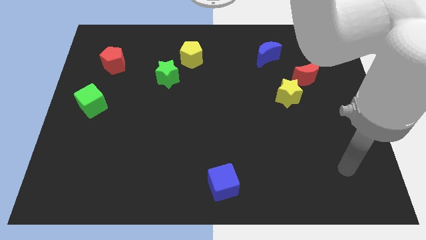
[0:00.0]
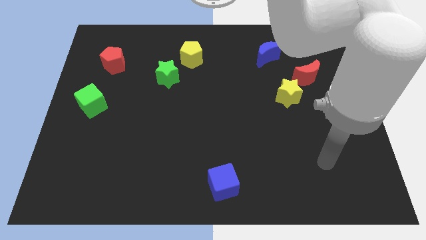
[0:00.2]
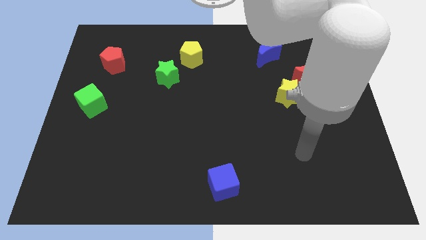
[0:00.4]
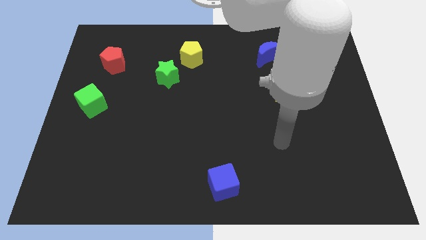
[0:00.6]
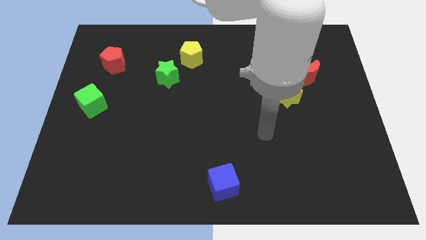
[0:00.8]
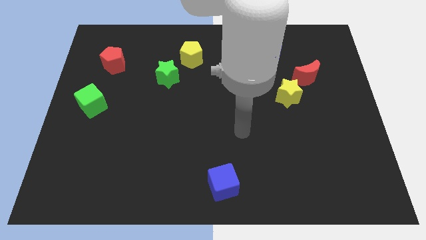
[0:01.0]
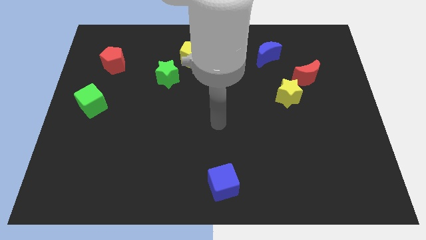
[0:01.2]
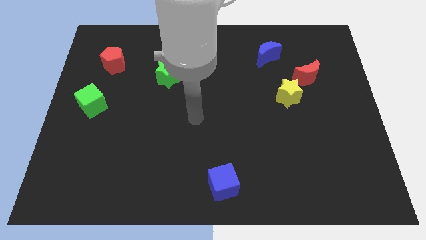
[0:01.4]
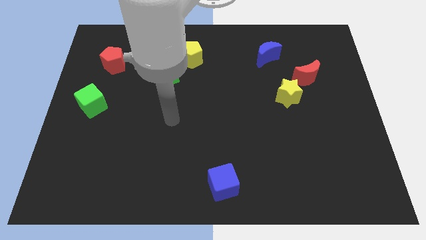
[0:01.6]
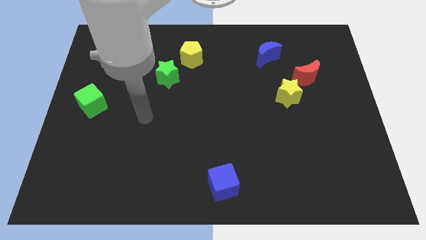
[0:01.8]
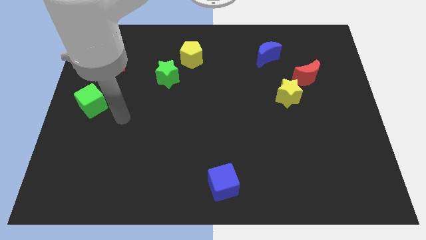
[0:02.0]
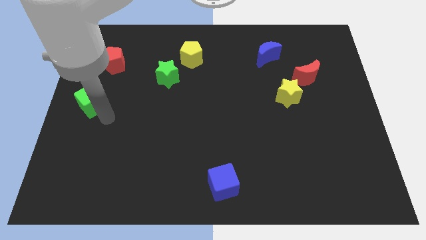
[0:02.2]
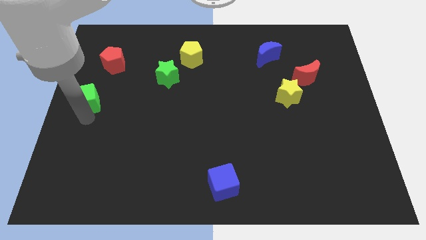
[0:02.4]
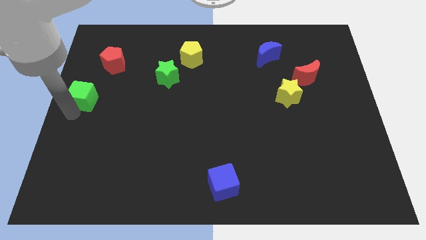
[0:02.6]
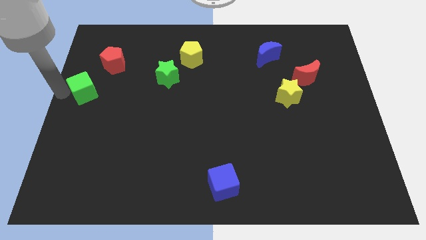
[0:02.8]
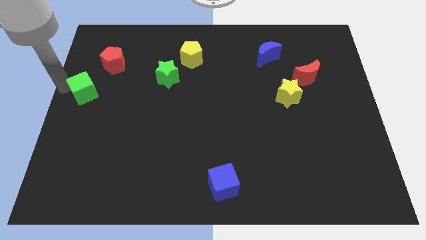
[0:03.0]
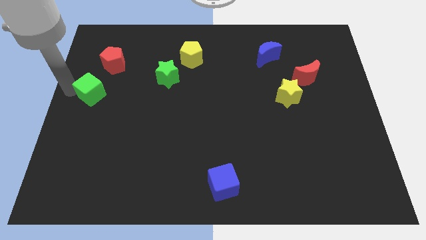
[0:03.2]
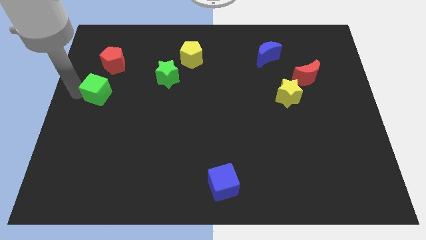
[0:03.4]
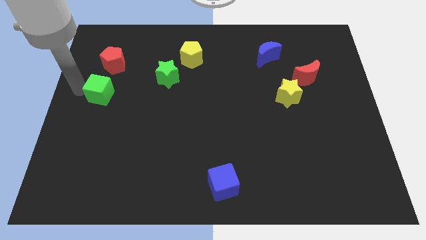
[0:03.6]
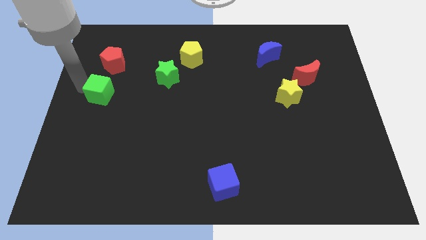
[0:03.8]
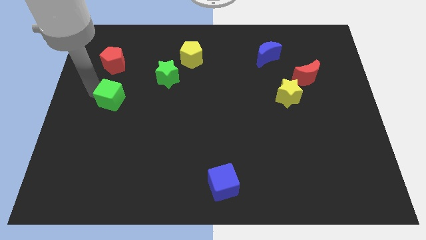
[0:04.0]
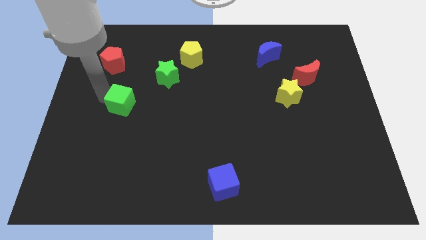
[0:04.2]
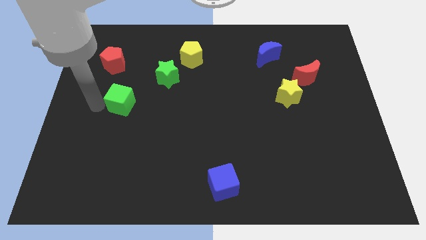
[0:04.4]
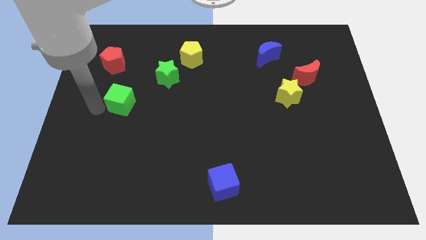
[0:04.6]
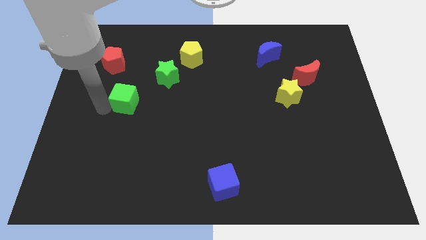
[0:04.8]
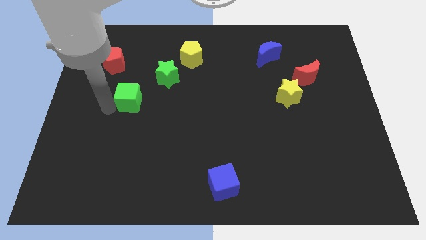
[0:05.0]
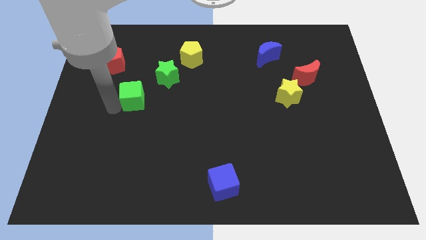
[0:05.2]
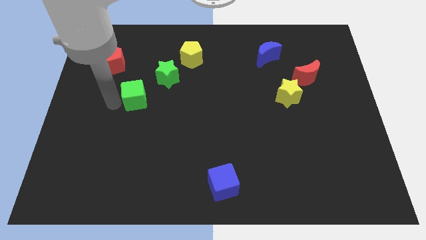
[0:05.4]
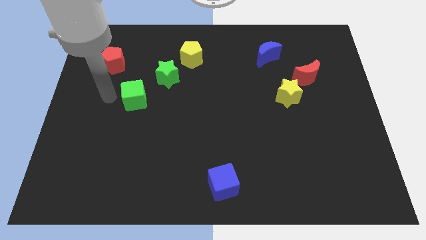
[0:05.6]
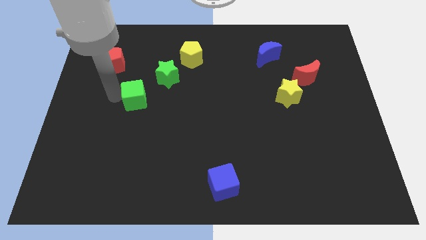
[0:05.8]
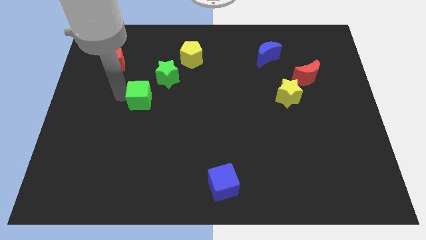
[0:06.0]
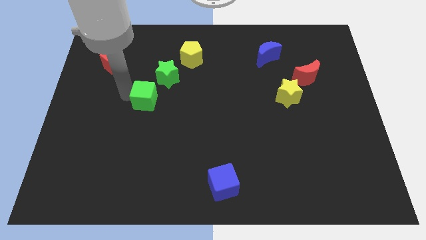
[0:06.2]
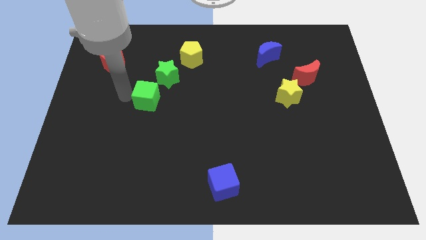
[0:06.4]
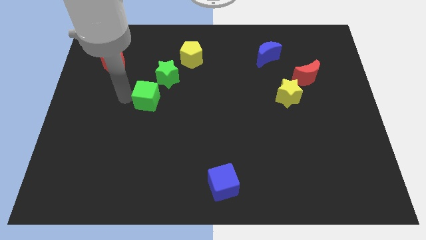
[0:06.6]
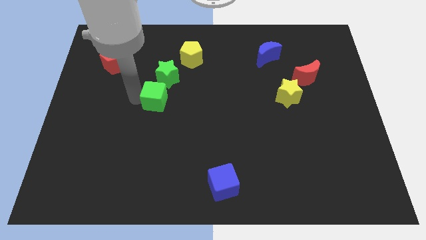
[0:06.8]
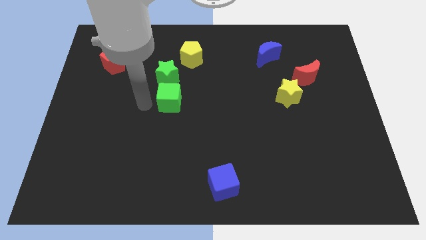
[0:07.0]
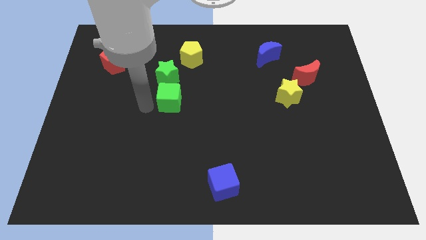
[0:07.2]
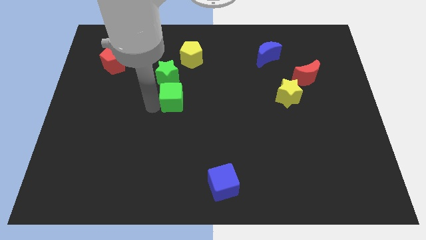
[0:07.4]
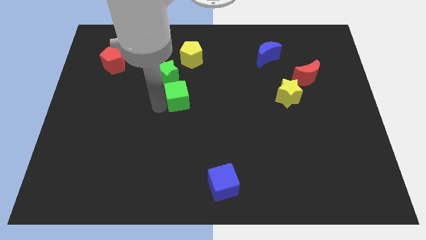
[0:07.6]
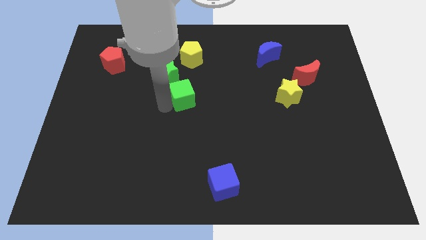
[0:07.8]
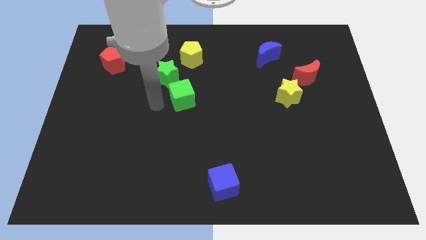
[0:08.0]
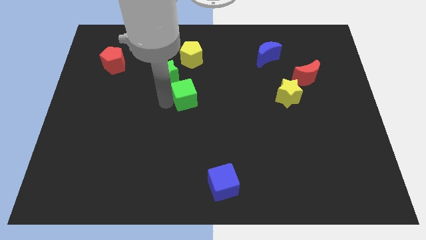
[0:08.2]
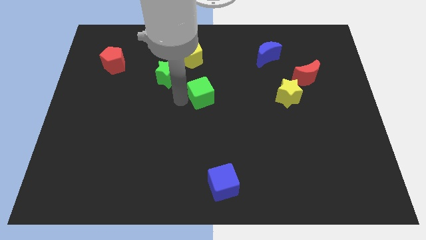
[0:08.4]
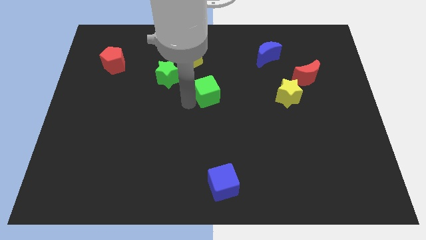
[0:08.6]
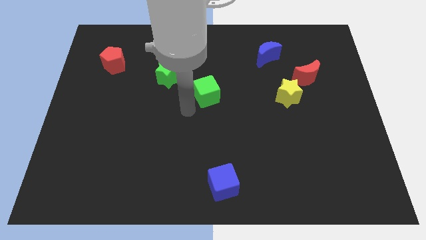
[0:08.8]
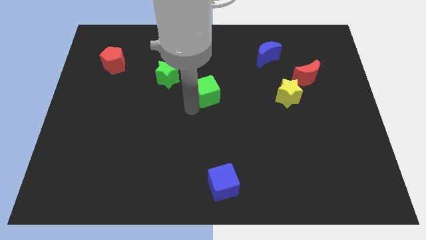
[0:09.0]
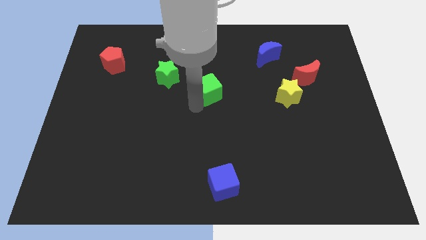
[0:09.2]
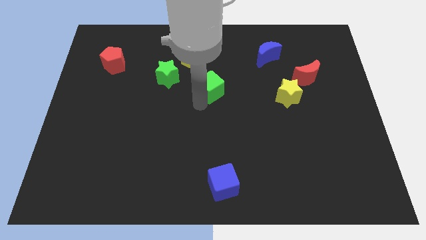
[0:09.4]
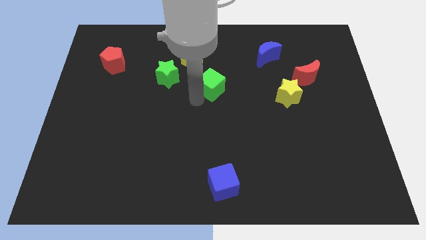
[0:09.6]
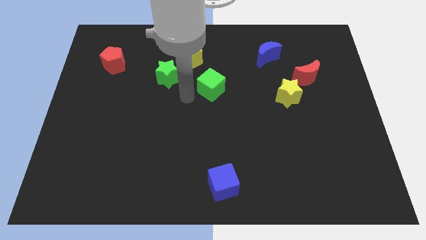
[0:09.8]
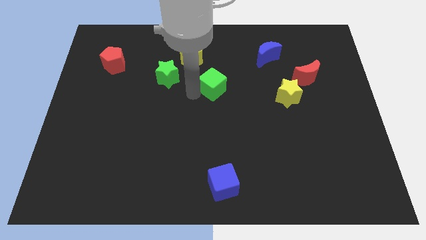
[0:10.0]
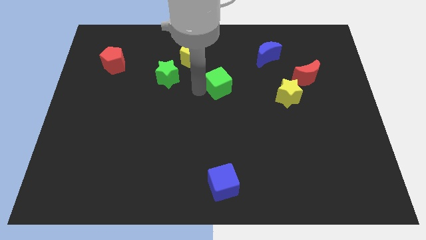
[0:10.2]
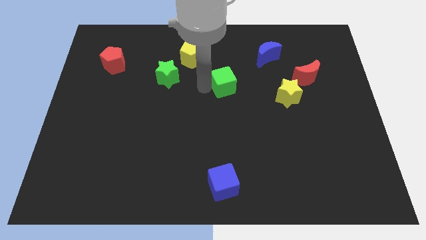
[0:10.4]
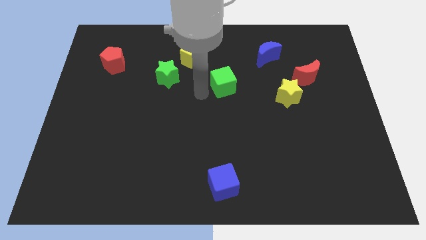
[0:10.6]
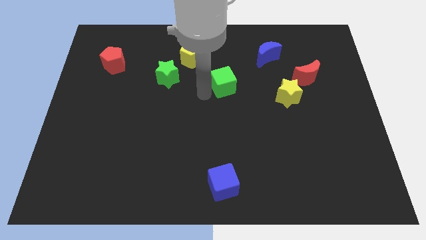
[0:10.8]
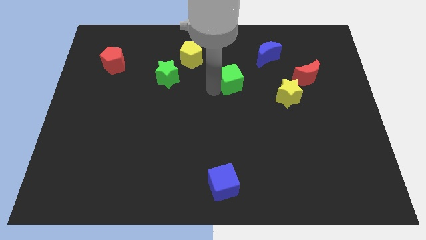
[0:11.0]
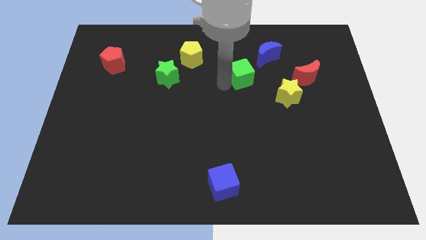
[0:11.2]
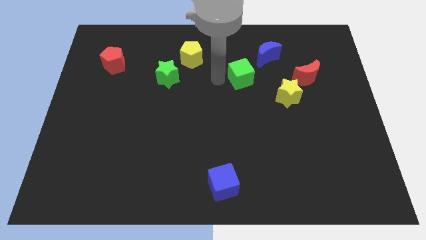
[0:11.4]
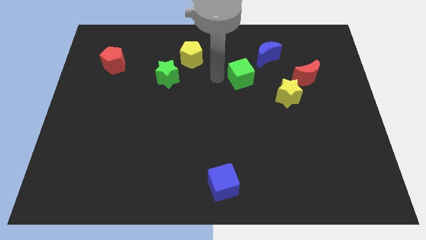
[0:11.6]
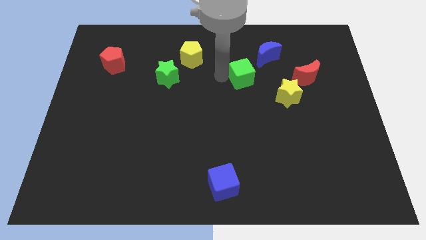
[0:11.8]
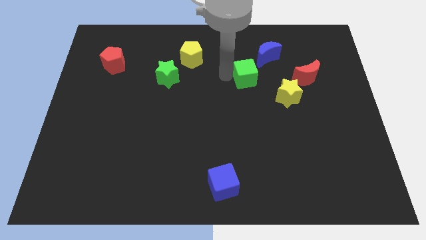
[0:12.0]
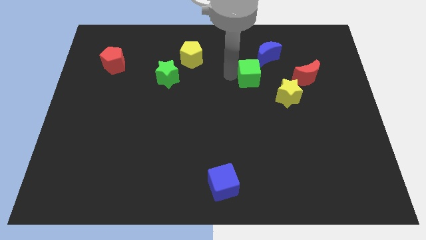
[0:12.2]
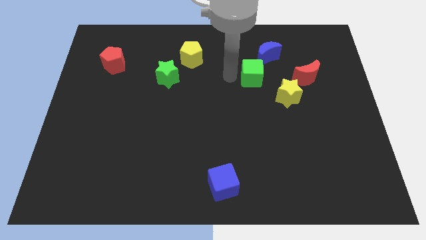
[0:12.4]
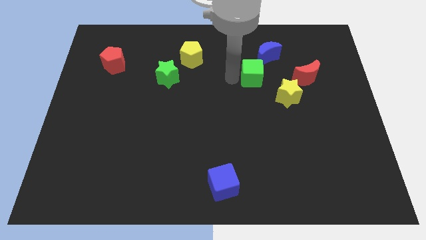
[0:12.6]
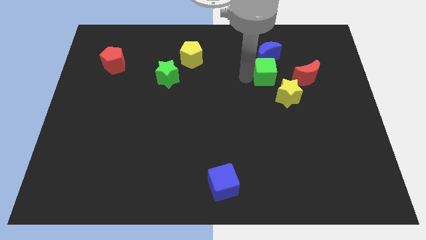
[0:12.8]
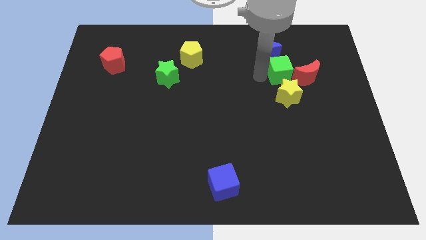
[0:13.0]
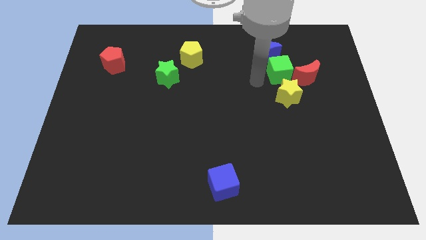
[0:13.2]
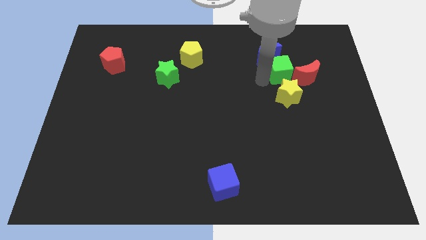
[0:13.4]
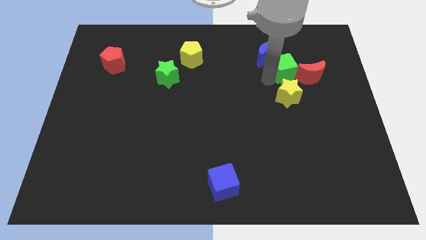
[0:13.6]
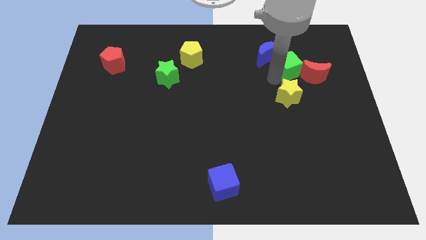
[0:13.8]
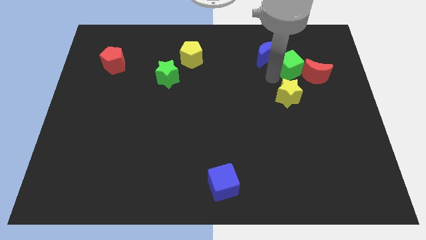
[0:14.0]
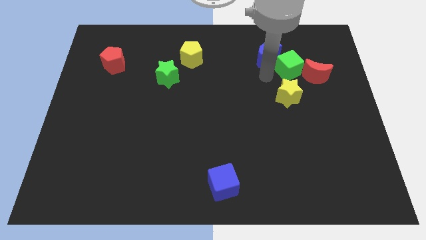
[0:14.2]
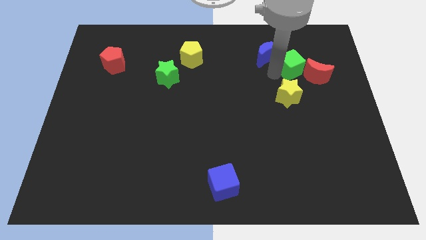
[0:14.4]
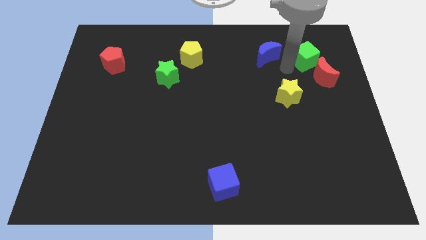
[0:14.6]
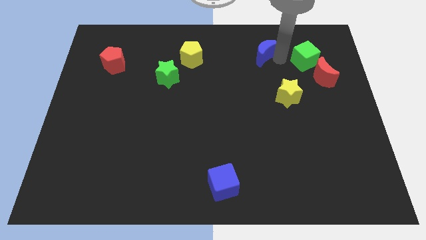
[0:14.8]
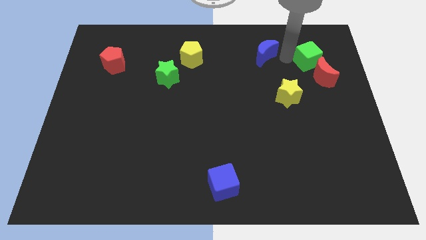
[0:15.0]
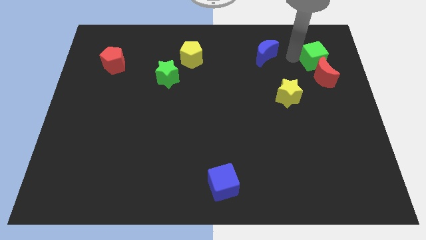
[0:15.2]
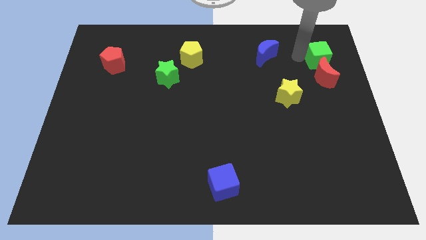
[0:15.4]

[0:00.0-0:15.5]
put the green cube to the top right of the red moon

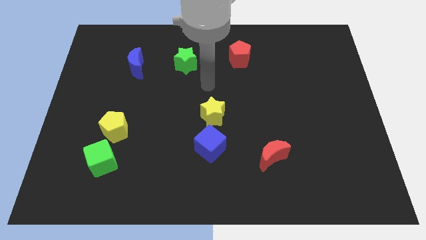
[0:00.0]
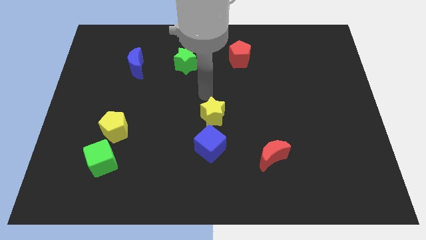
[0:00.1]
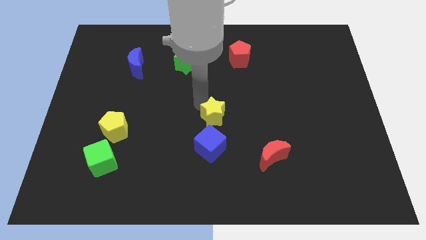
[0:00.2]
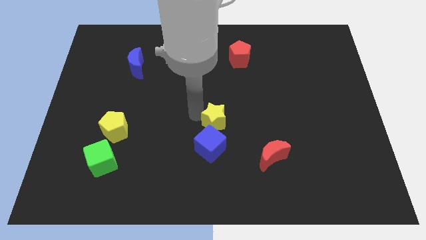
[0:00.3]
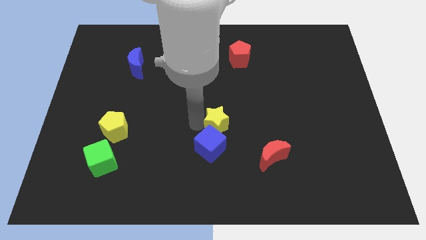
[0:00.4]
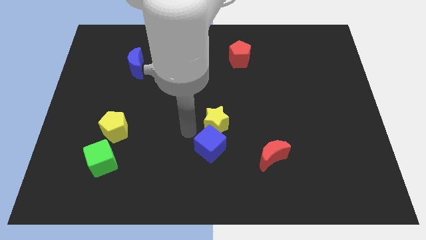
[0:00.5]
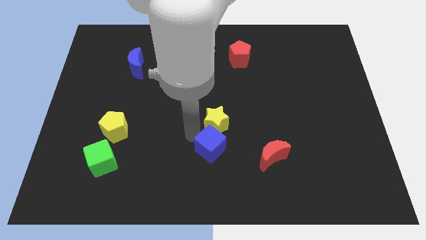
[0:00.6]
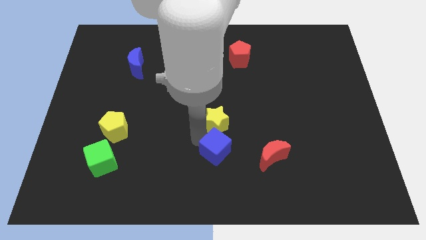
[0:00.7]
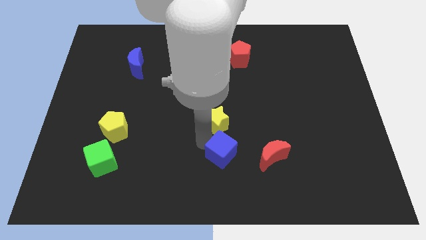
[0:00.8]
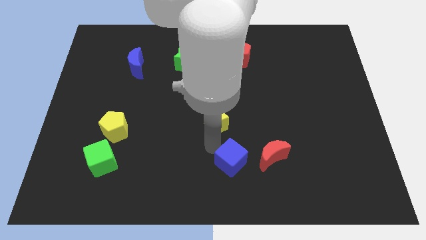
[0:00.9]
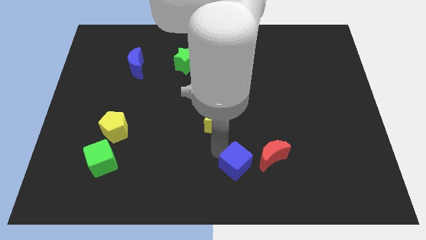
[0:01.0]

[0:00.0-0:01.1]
move the blue cube diagonally down and to the left of the red moon
